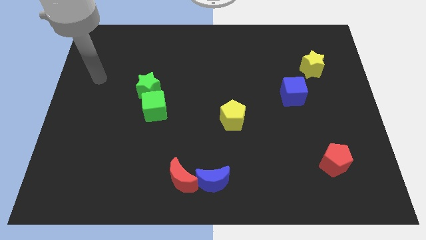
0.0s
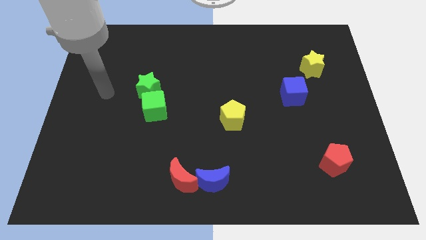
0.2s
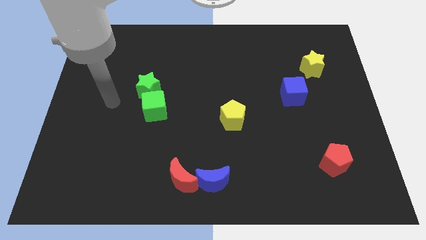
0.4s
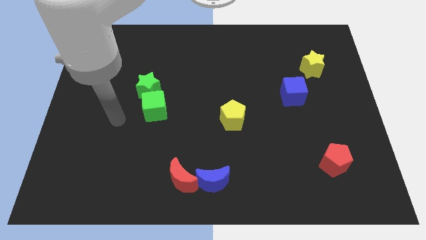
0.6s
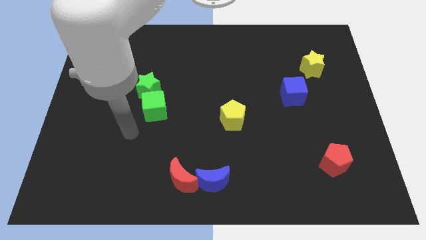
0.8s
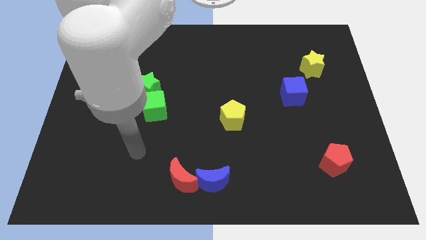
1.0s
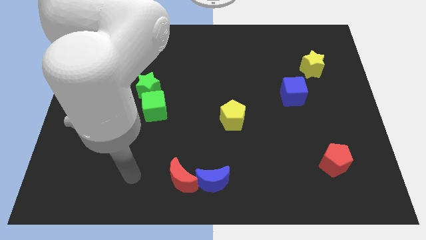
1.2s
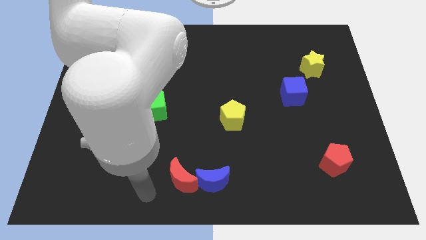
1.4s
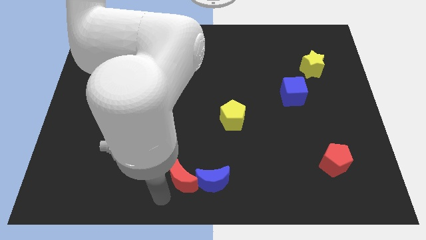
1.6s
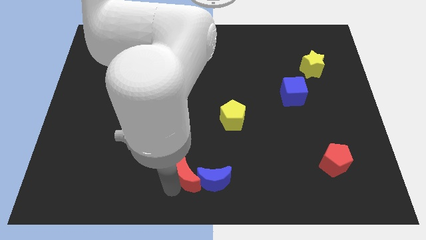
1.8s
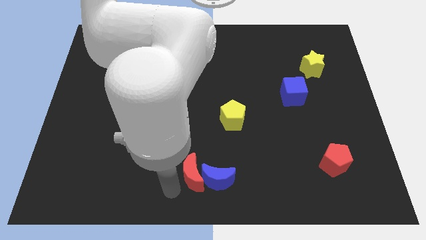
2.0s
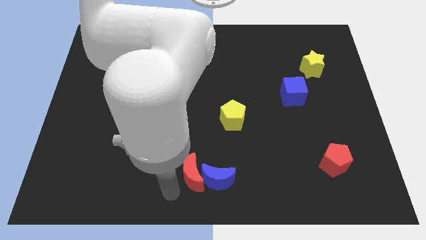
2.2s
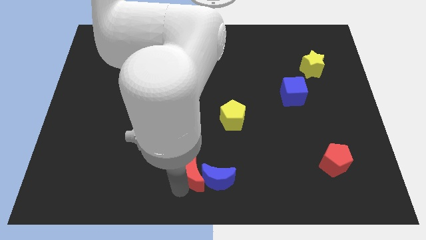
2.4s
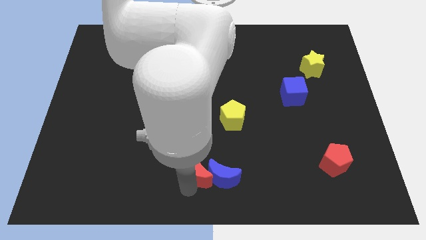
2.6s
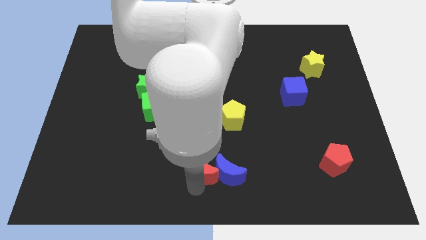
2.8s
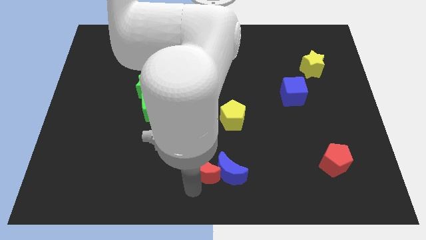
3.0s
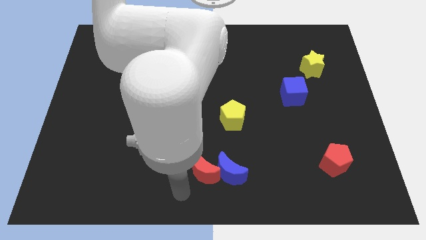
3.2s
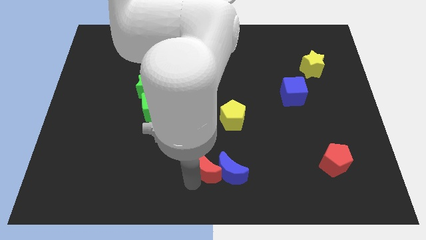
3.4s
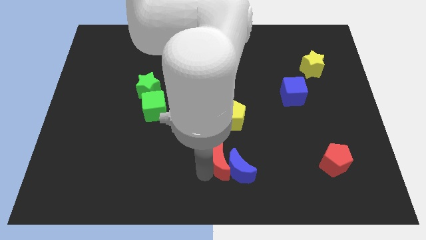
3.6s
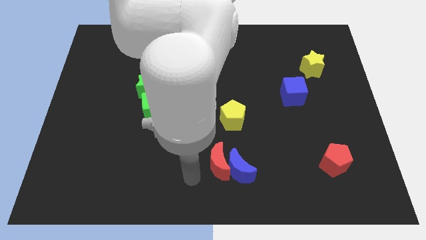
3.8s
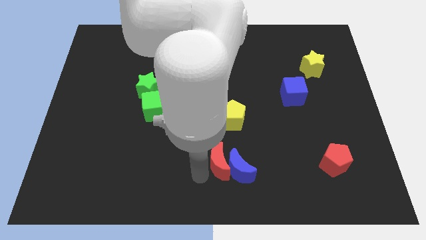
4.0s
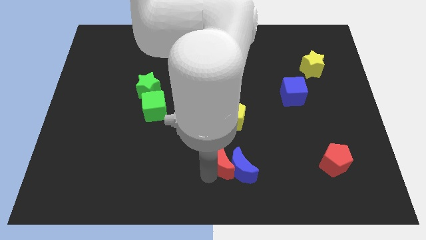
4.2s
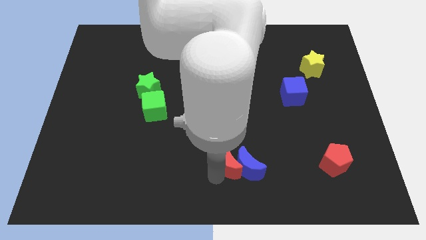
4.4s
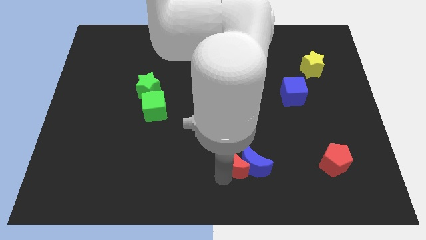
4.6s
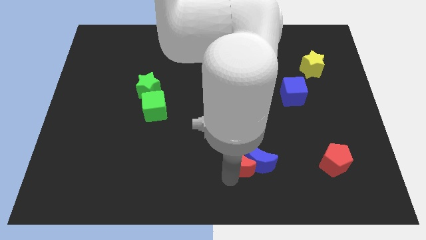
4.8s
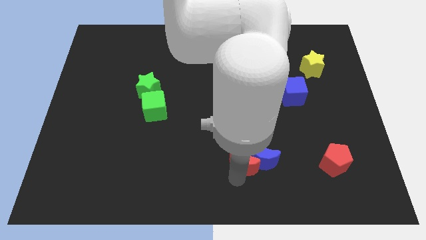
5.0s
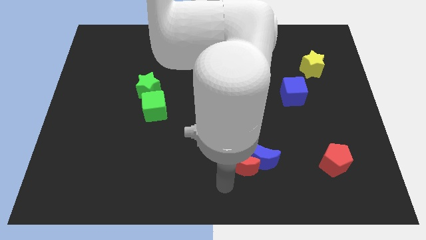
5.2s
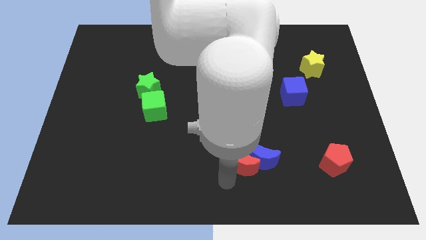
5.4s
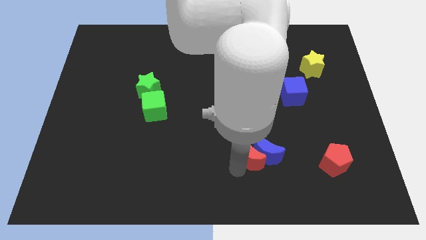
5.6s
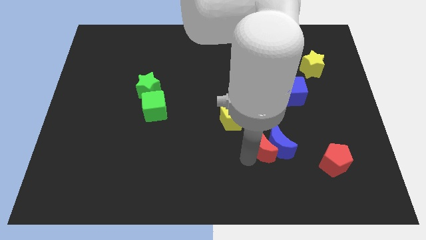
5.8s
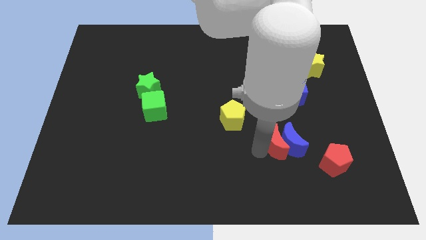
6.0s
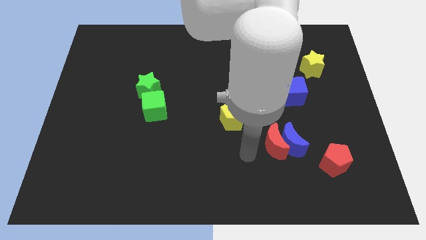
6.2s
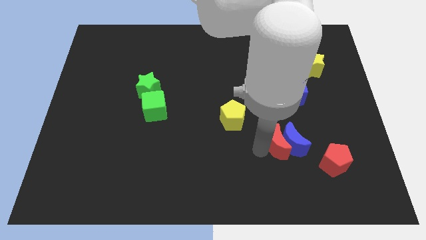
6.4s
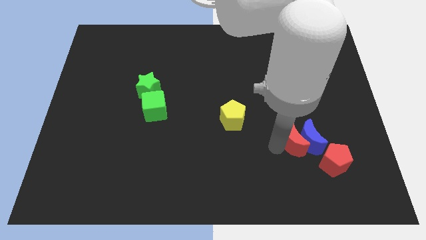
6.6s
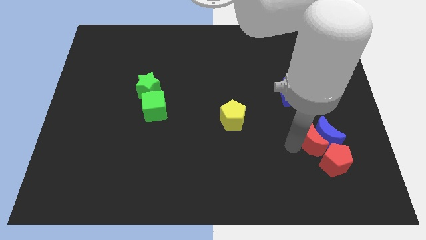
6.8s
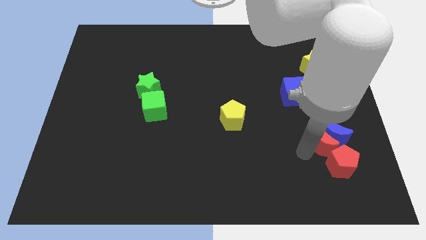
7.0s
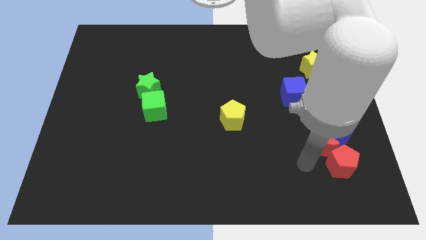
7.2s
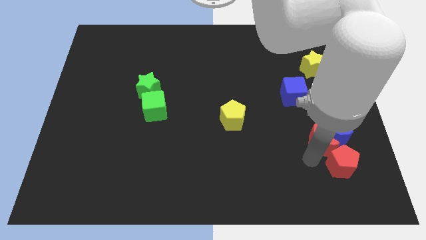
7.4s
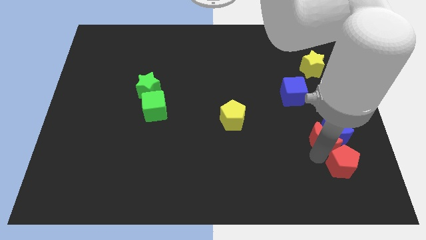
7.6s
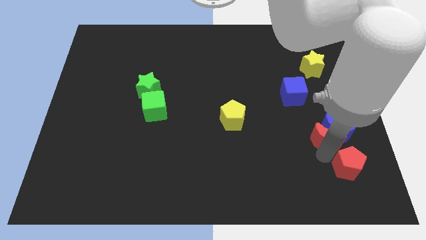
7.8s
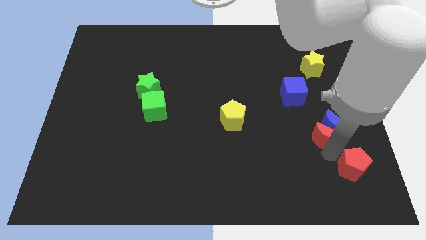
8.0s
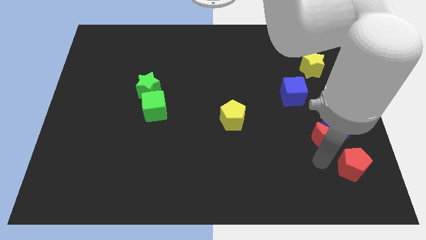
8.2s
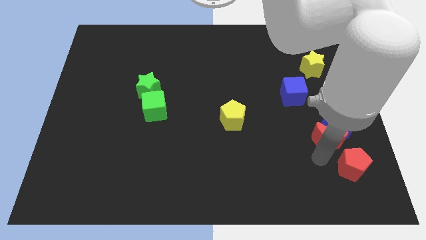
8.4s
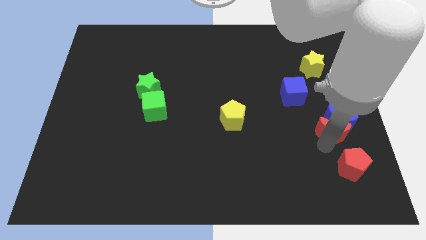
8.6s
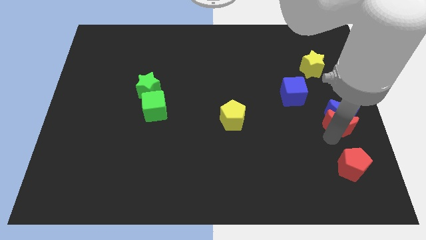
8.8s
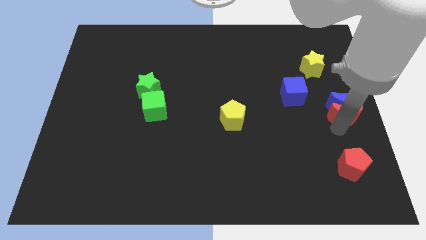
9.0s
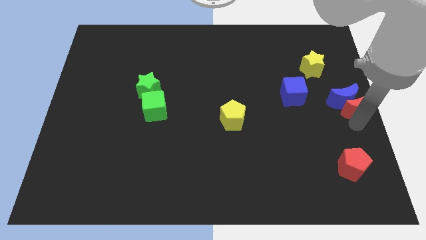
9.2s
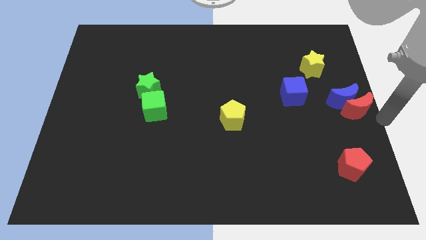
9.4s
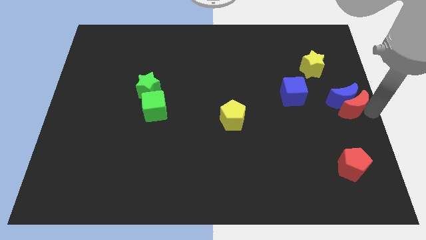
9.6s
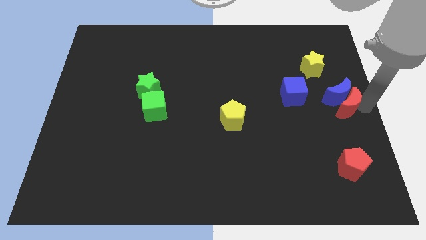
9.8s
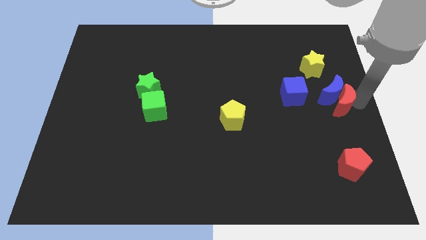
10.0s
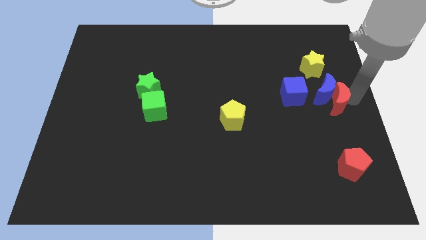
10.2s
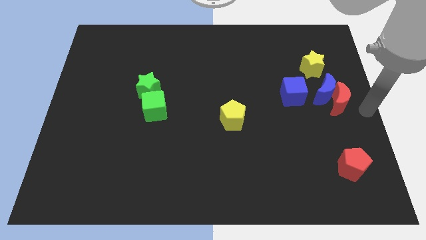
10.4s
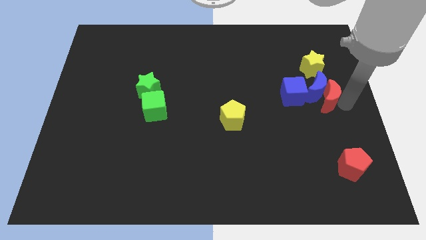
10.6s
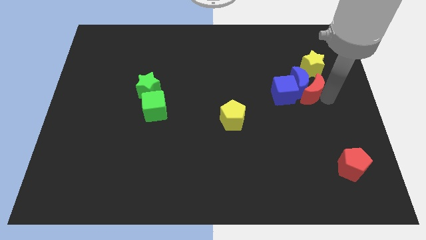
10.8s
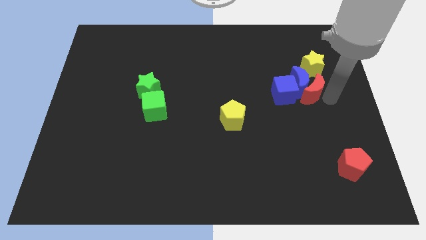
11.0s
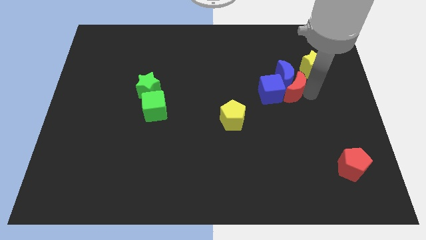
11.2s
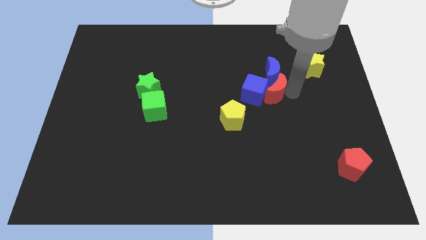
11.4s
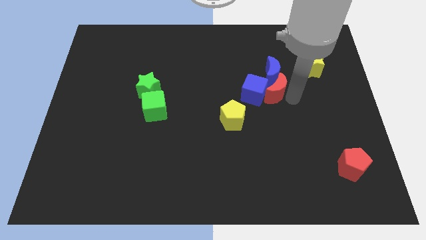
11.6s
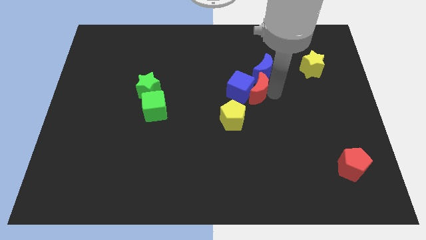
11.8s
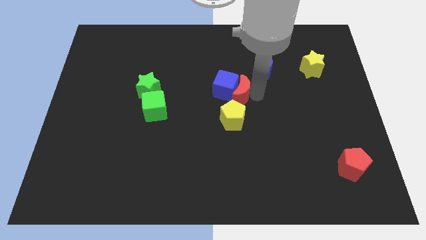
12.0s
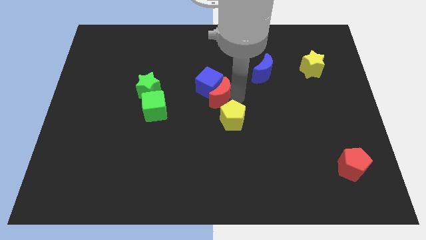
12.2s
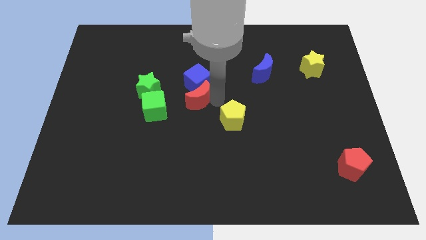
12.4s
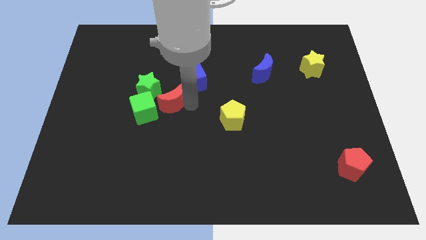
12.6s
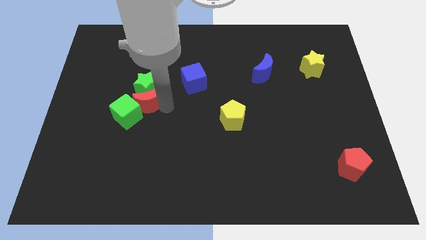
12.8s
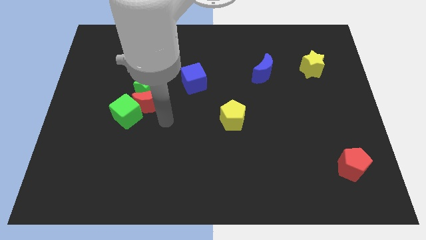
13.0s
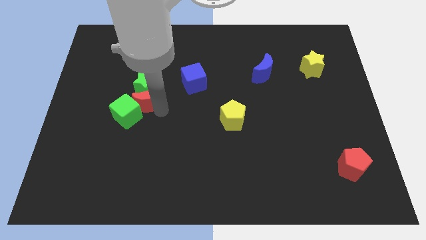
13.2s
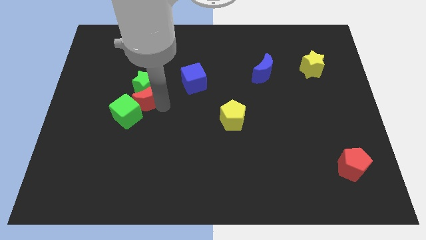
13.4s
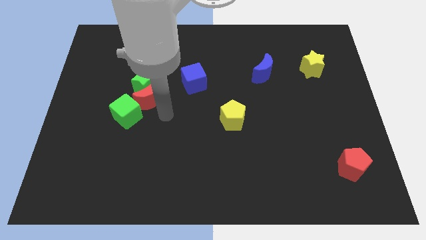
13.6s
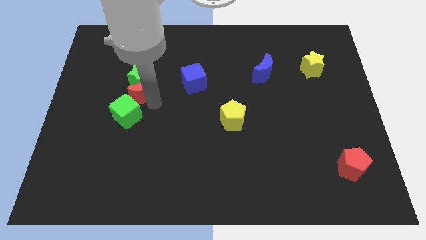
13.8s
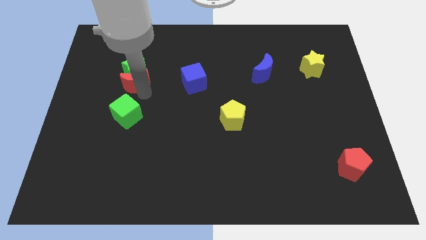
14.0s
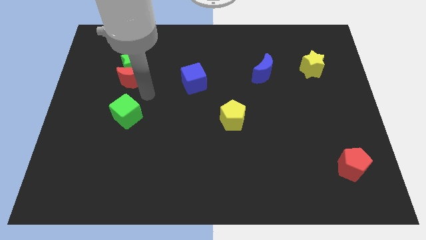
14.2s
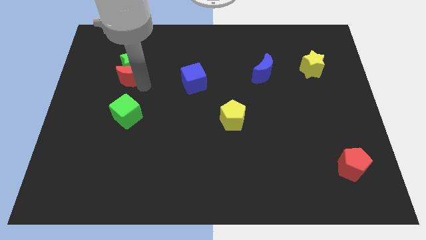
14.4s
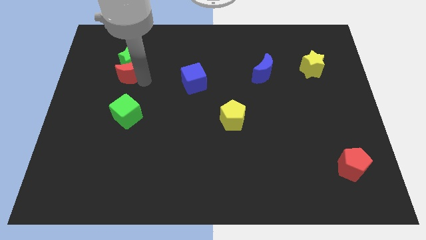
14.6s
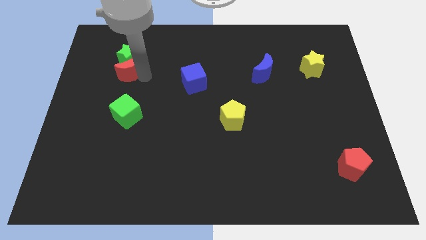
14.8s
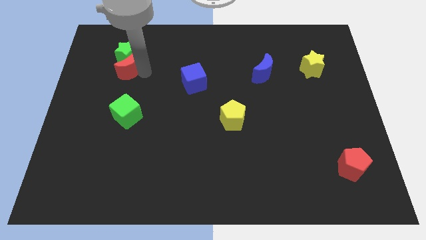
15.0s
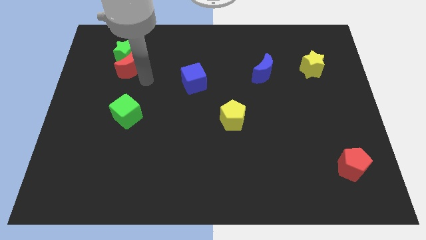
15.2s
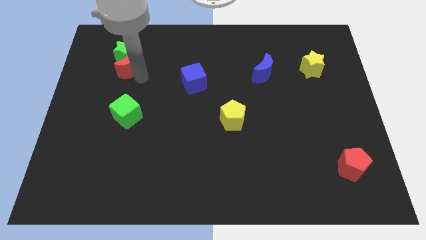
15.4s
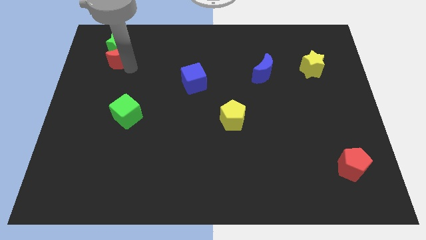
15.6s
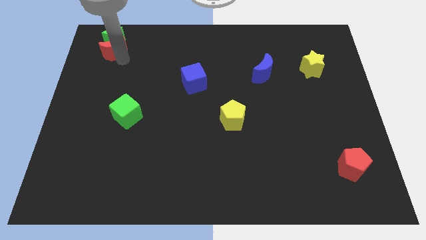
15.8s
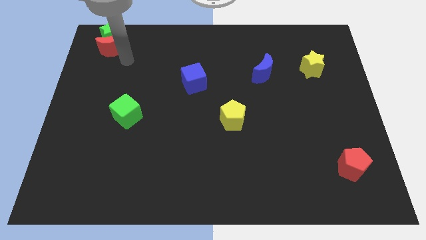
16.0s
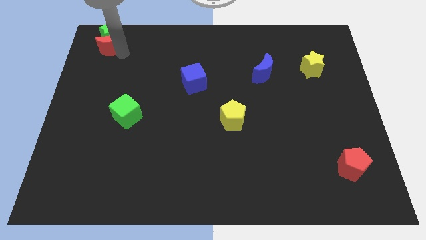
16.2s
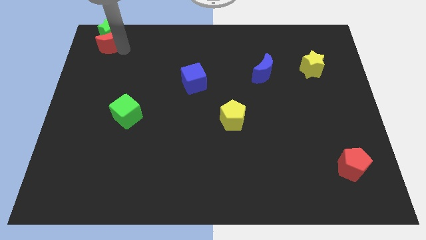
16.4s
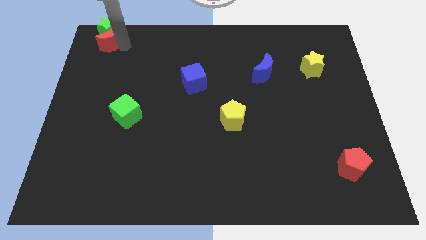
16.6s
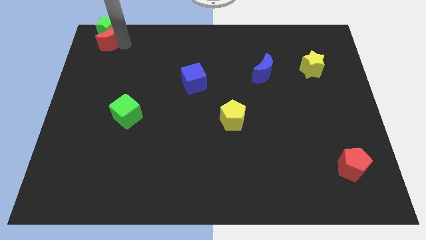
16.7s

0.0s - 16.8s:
move the red moon to the top left
